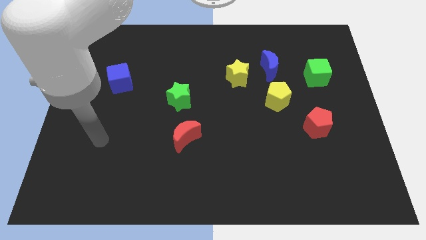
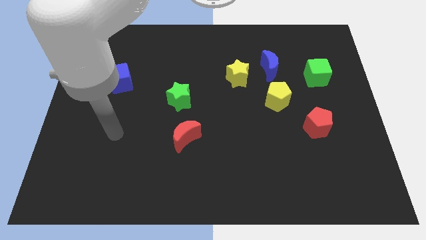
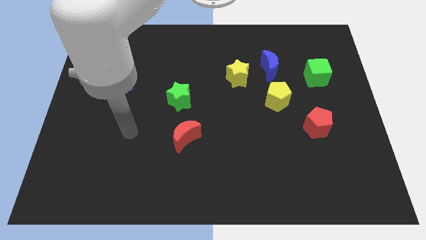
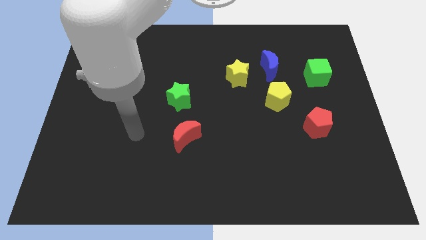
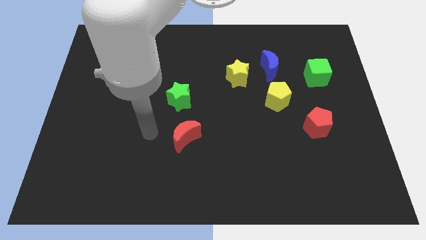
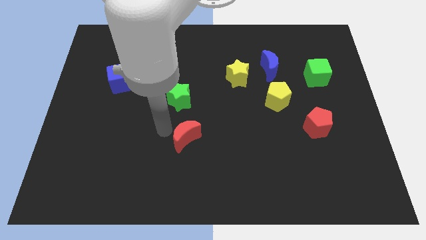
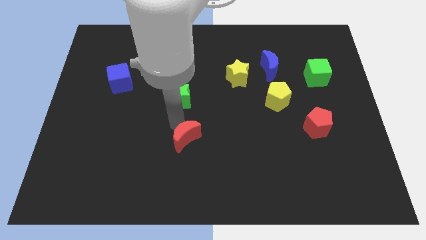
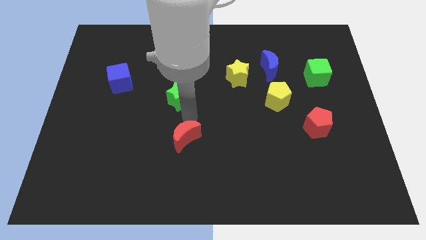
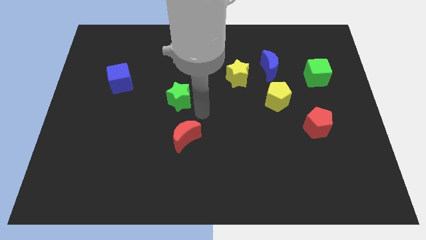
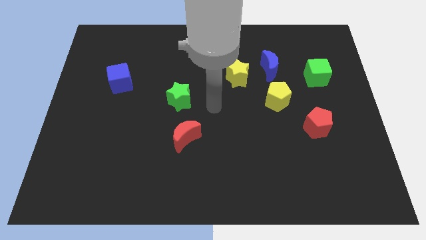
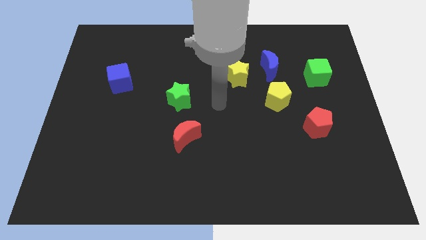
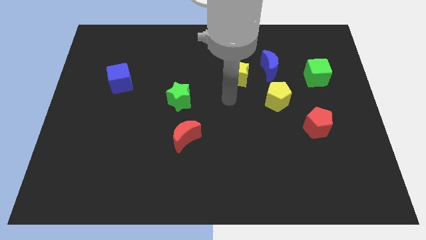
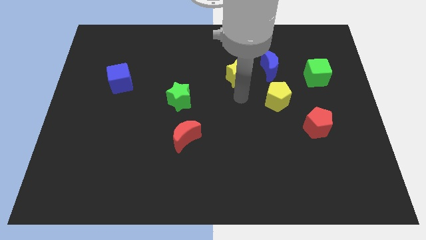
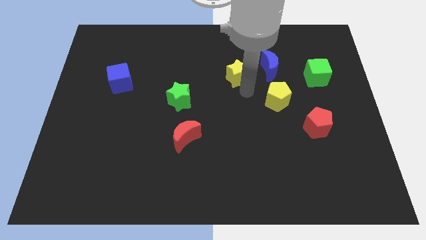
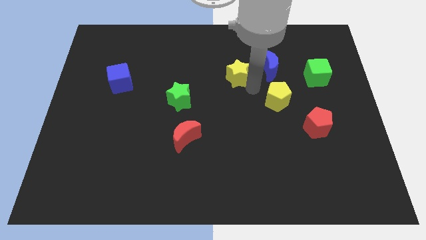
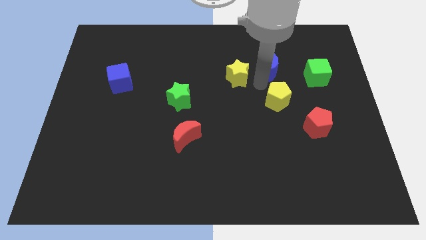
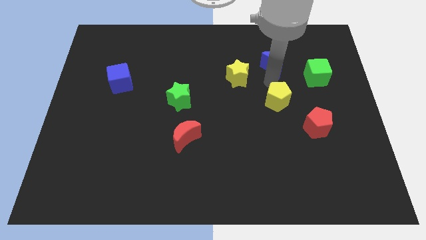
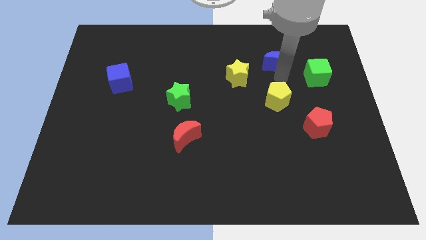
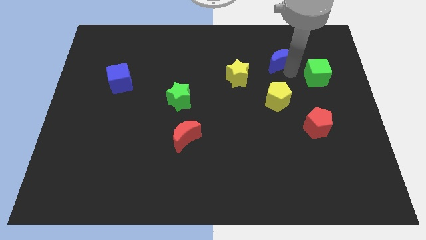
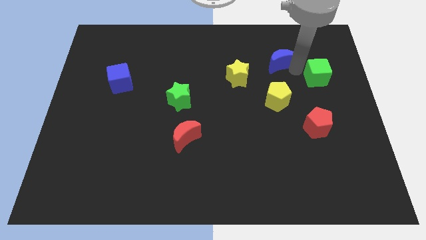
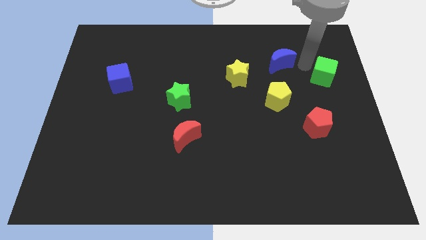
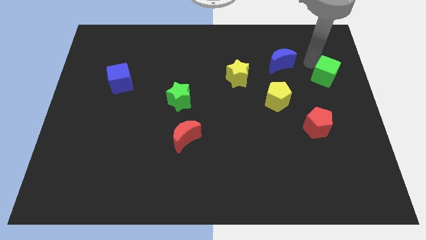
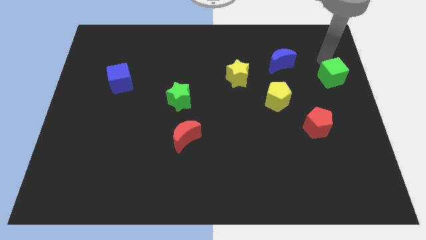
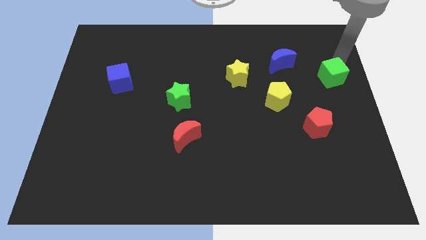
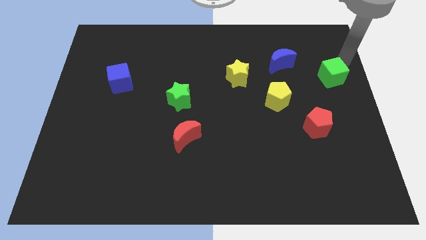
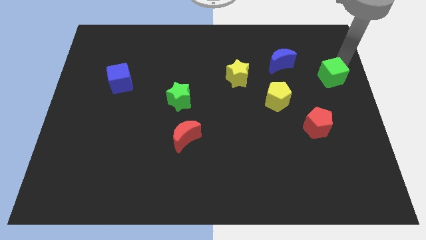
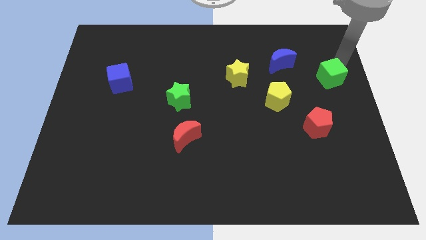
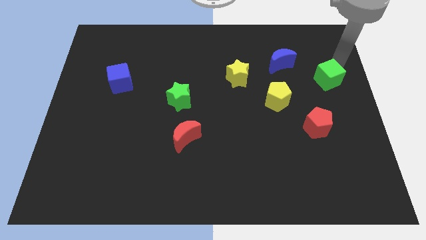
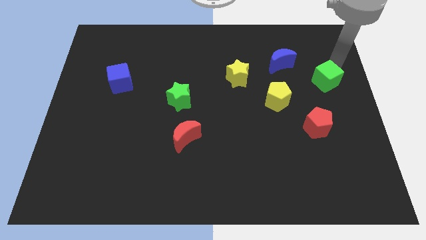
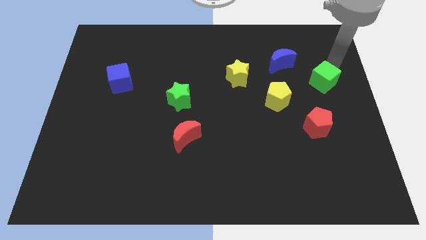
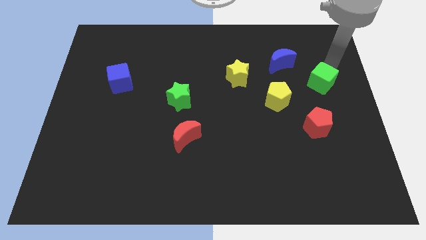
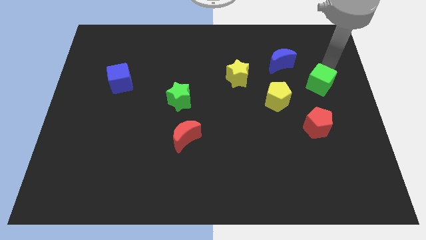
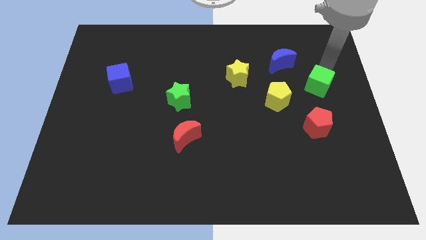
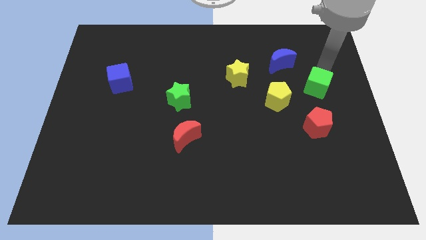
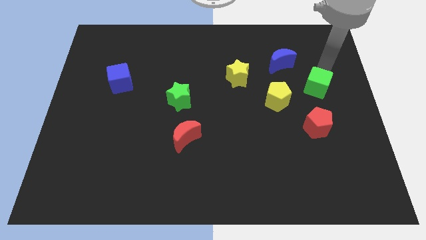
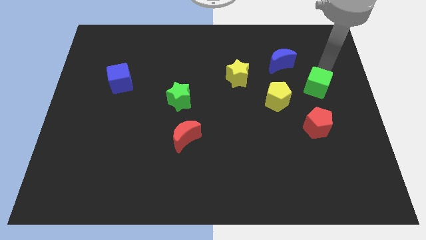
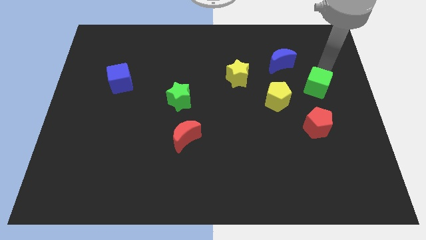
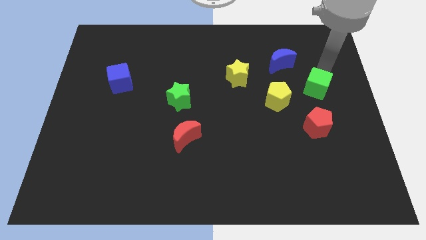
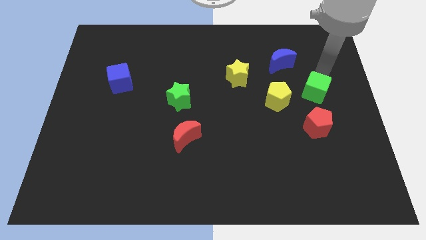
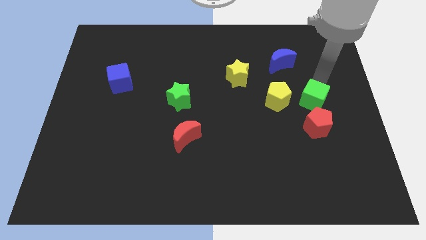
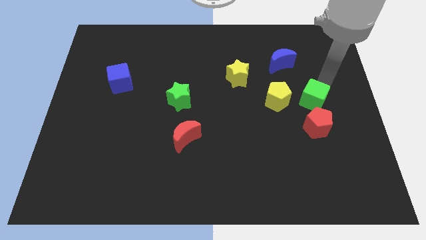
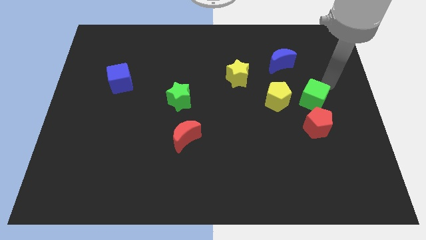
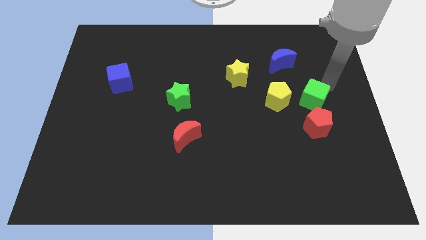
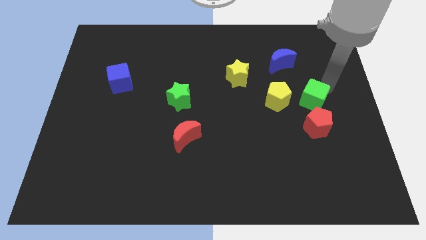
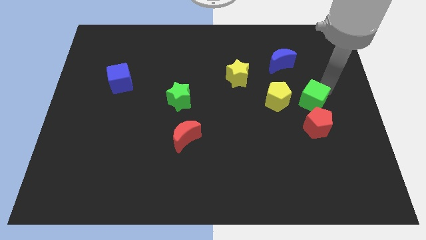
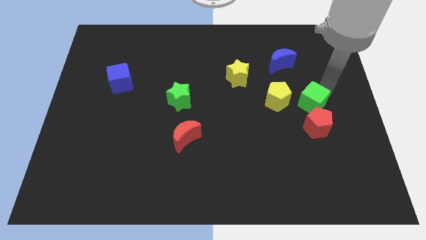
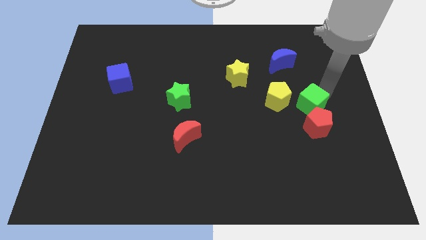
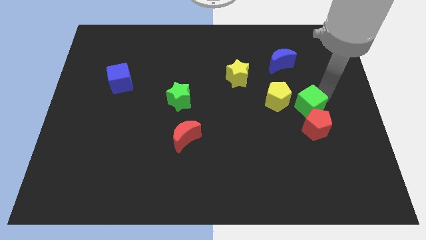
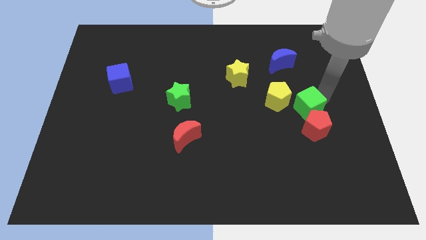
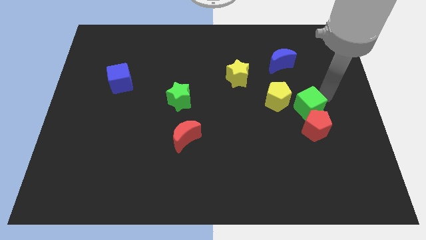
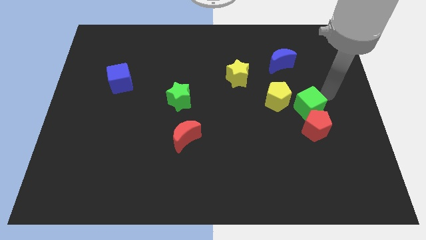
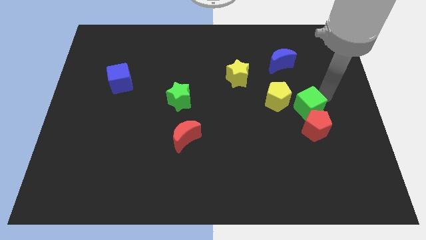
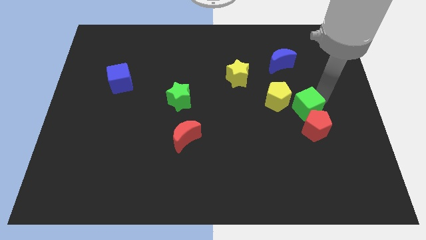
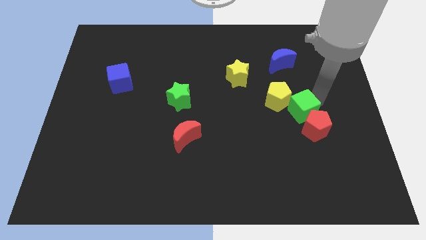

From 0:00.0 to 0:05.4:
put the green cube below the blue moon

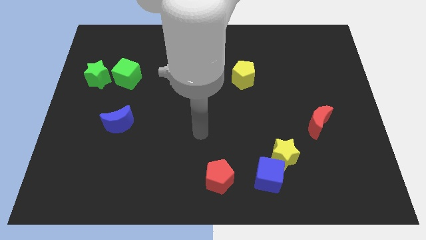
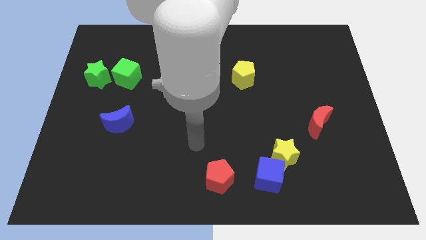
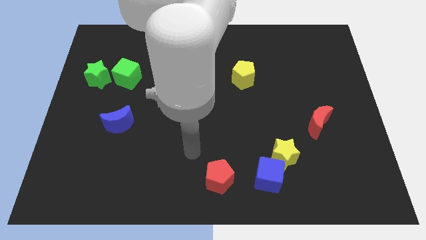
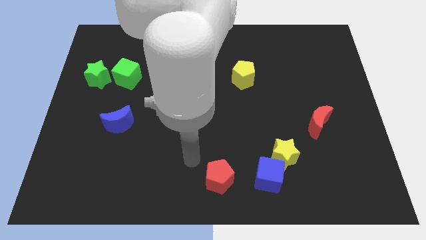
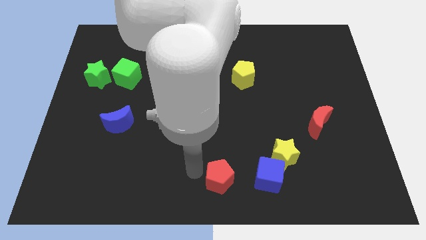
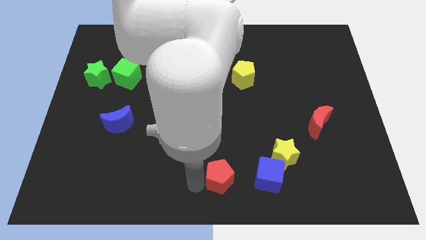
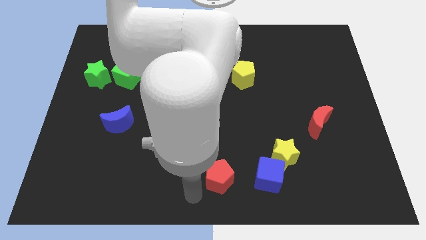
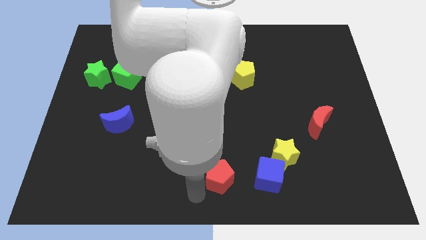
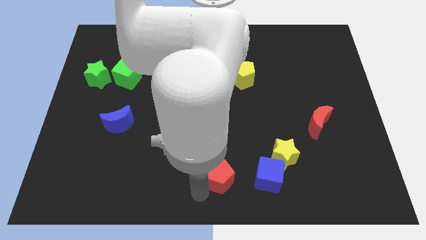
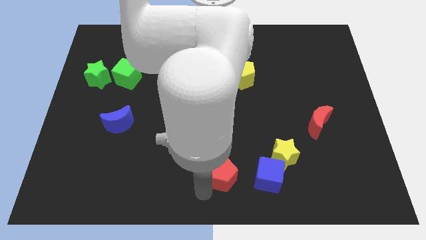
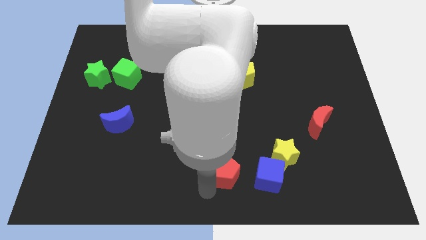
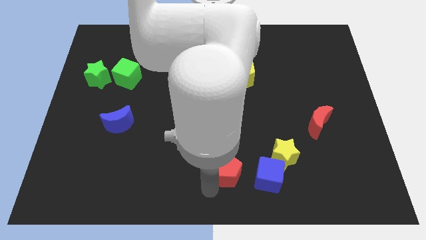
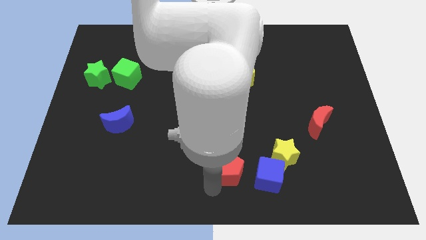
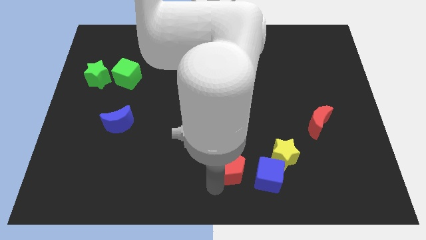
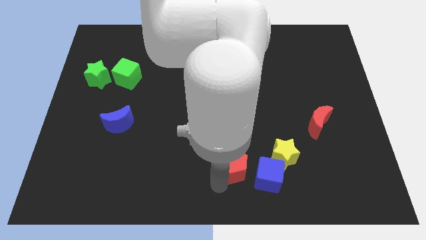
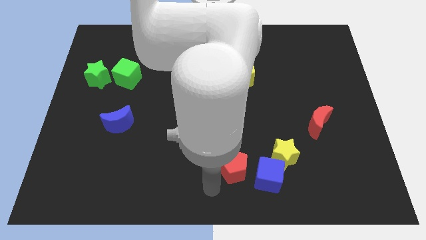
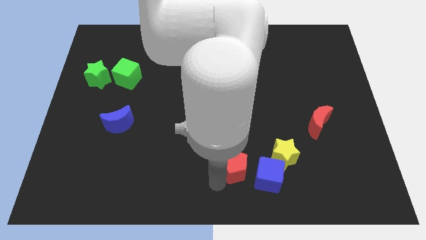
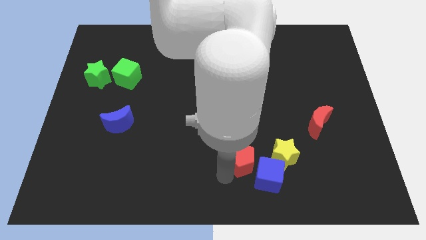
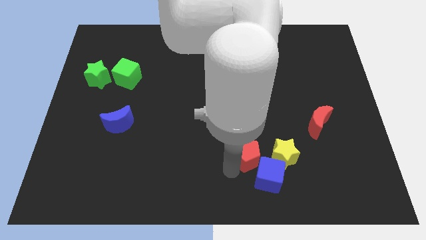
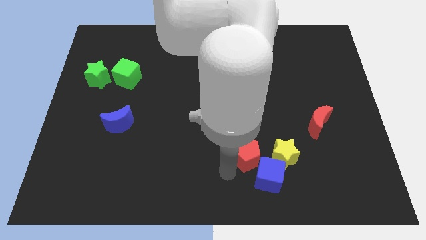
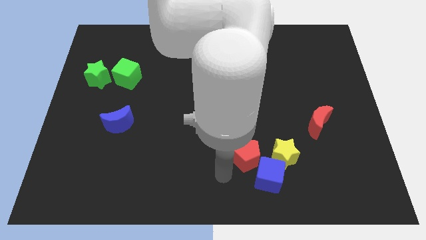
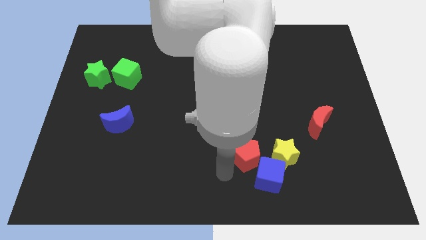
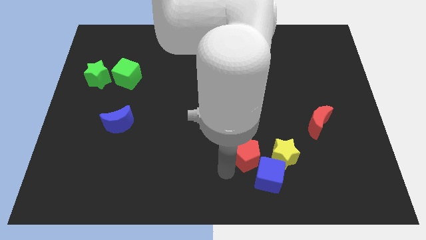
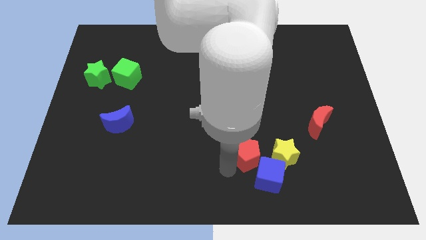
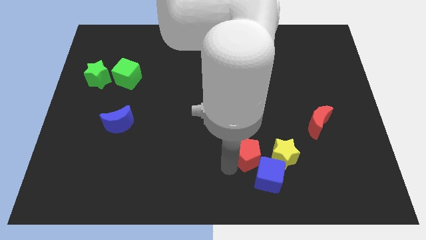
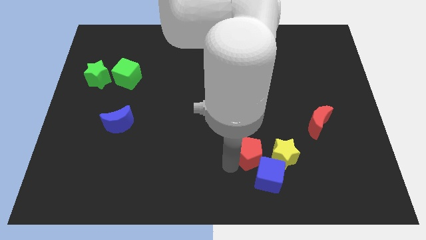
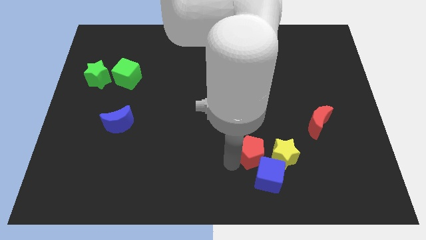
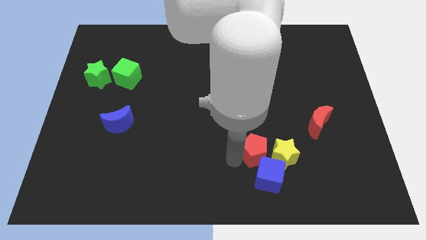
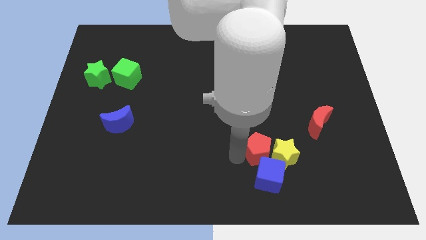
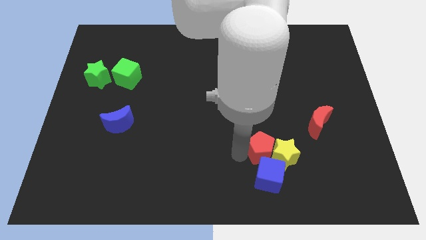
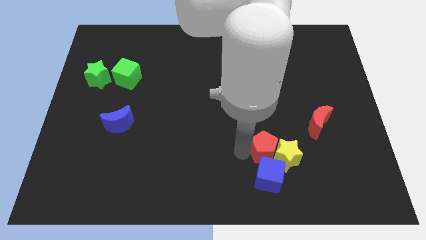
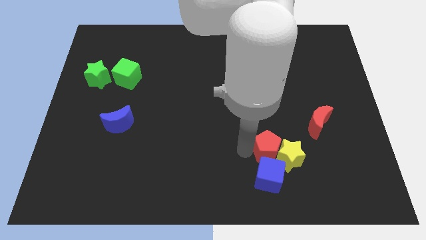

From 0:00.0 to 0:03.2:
put the red pentagon to the top right of the blue cube
